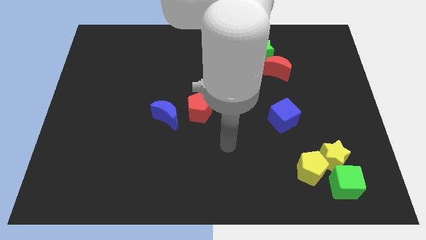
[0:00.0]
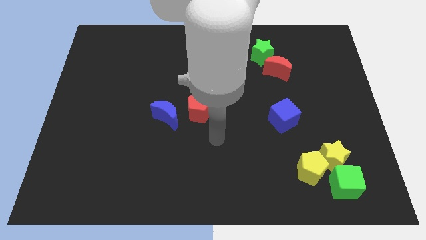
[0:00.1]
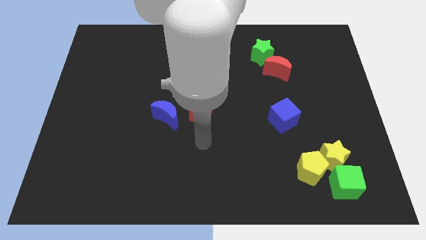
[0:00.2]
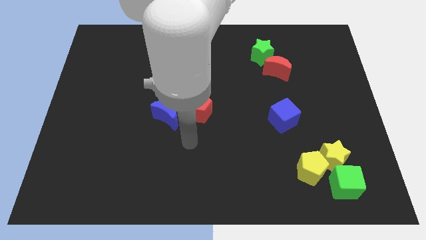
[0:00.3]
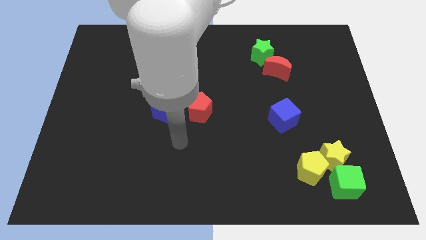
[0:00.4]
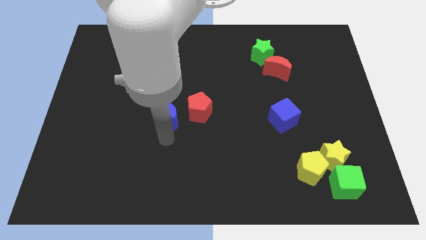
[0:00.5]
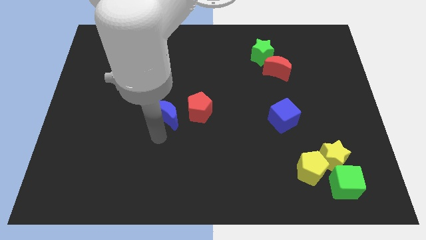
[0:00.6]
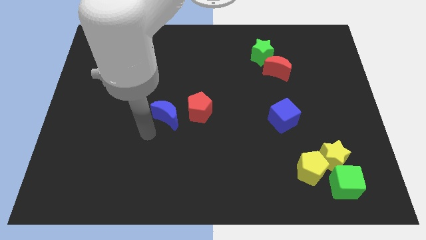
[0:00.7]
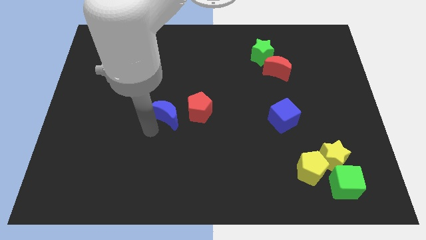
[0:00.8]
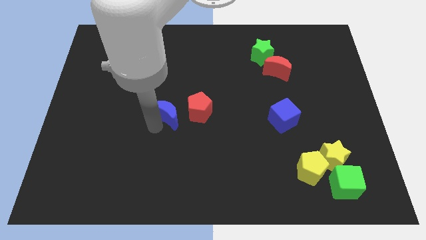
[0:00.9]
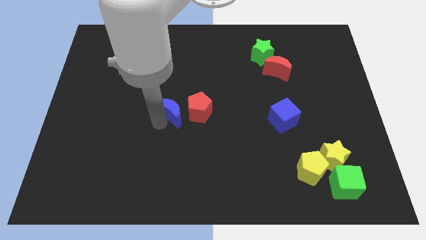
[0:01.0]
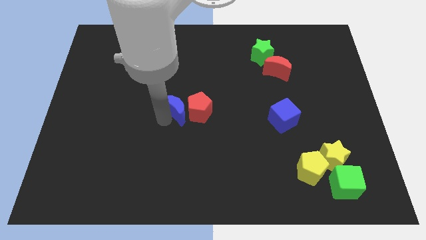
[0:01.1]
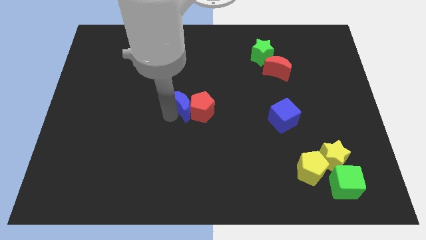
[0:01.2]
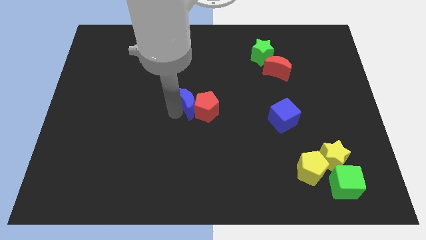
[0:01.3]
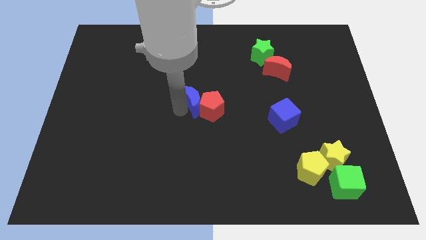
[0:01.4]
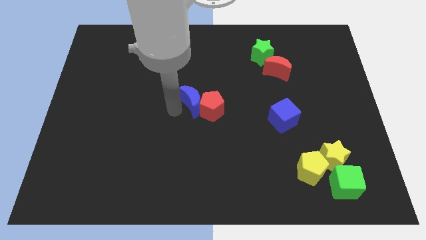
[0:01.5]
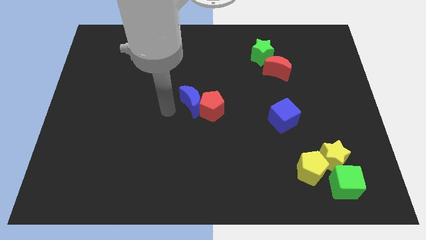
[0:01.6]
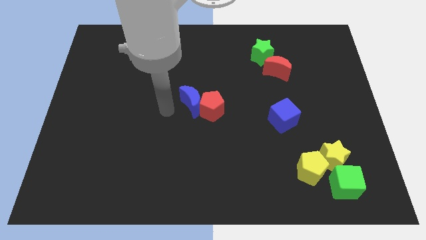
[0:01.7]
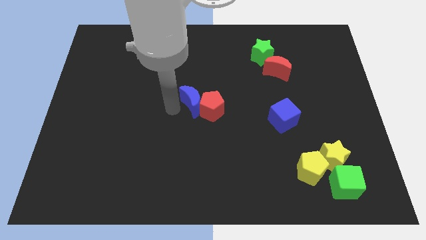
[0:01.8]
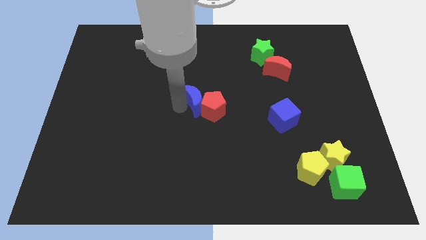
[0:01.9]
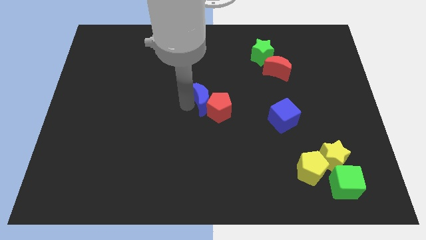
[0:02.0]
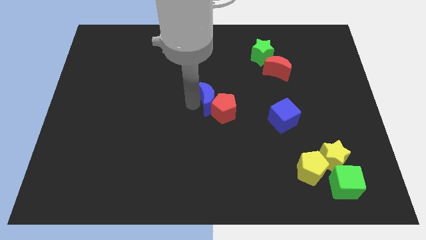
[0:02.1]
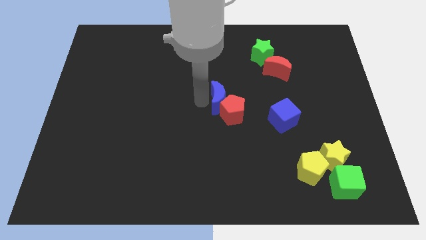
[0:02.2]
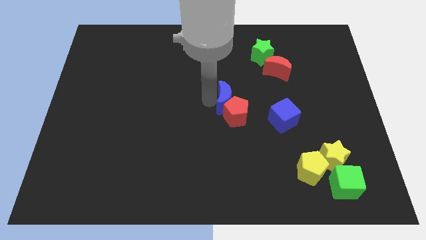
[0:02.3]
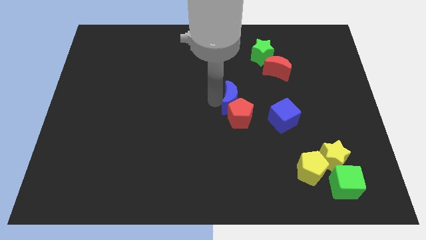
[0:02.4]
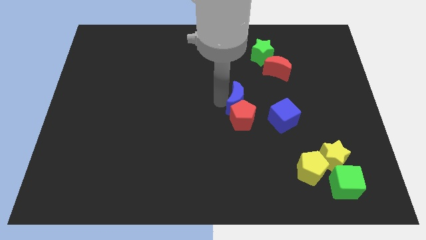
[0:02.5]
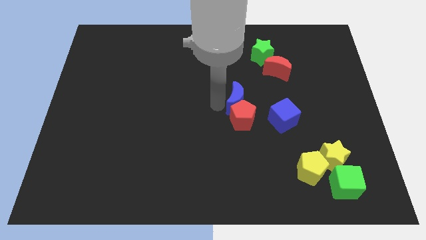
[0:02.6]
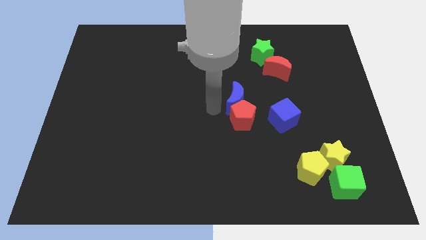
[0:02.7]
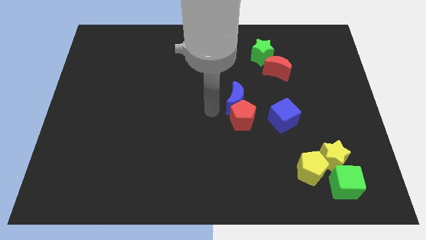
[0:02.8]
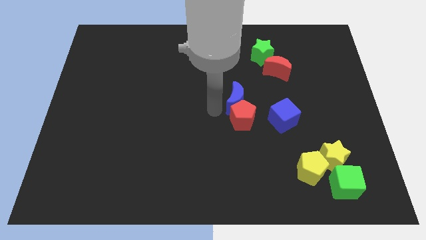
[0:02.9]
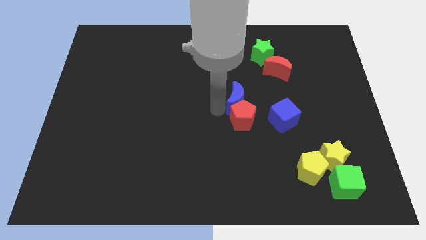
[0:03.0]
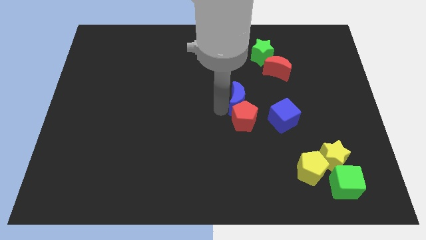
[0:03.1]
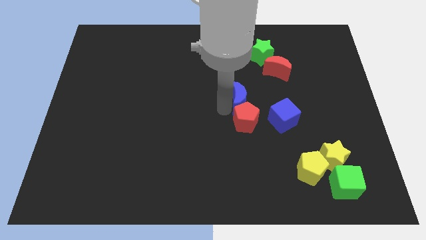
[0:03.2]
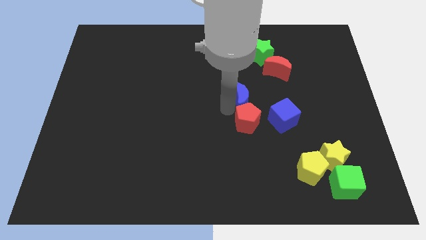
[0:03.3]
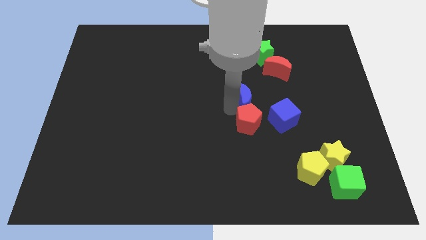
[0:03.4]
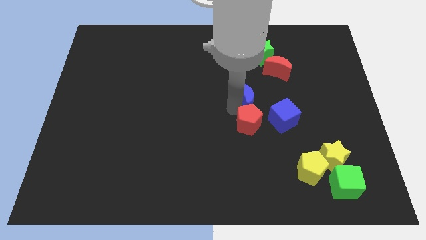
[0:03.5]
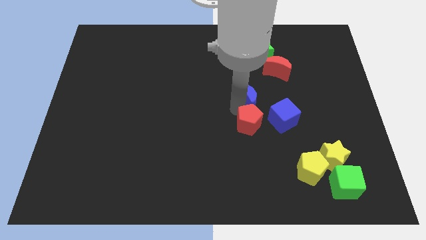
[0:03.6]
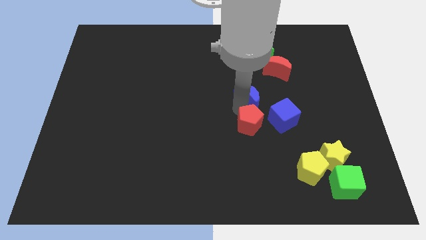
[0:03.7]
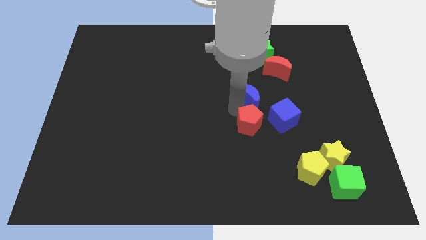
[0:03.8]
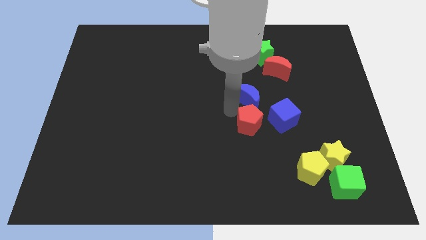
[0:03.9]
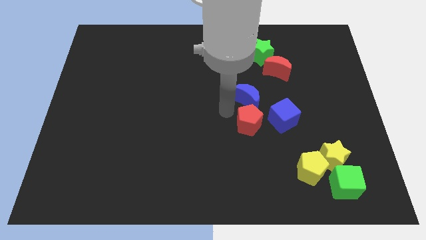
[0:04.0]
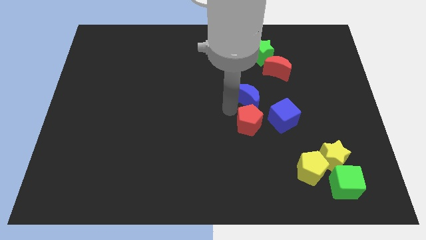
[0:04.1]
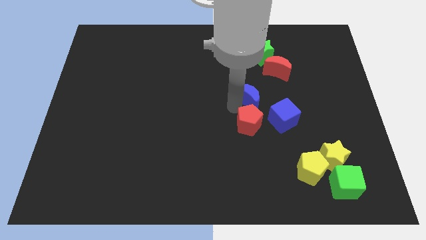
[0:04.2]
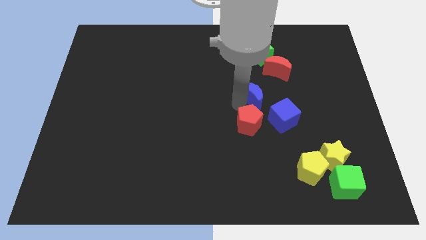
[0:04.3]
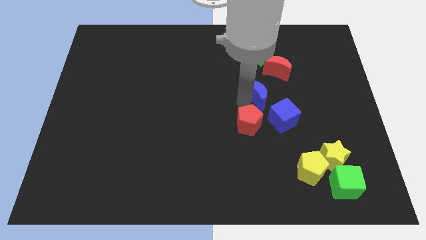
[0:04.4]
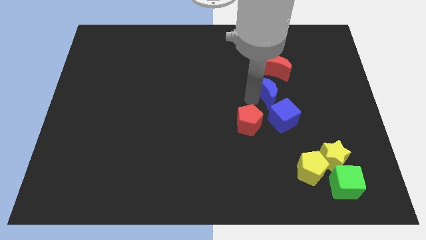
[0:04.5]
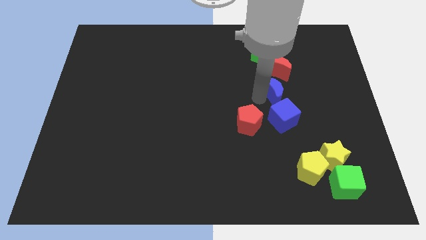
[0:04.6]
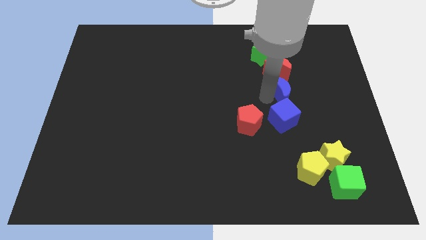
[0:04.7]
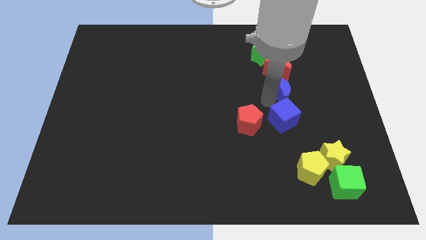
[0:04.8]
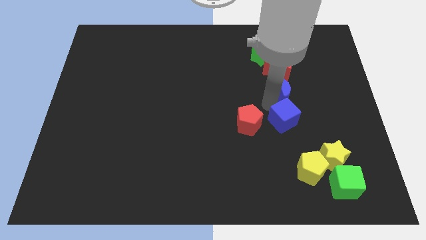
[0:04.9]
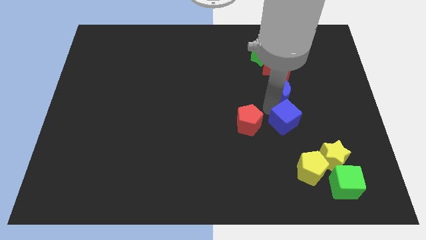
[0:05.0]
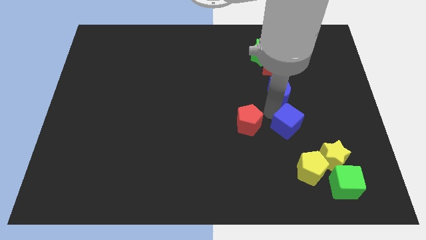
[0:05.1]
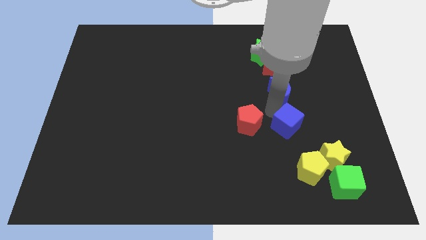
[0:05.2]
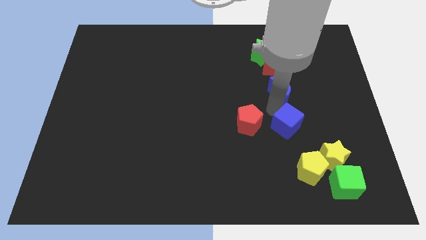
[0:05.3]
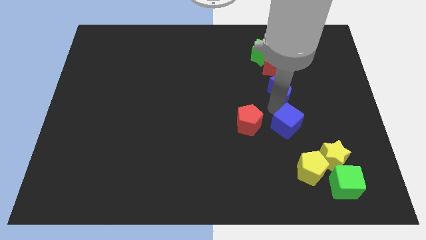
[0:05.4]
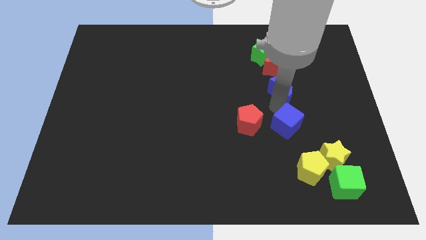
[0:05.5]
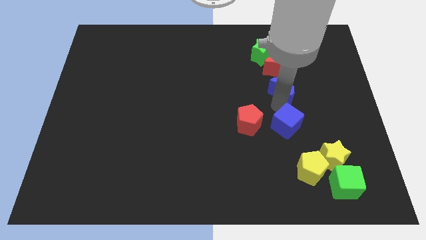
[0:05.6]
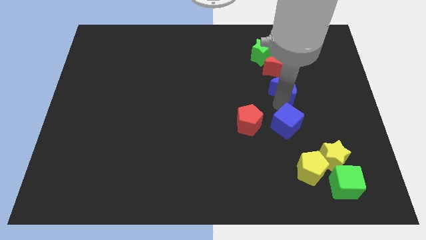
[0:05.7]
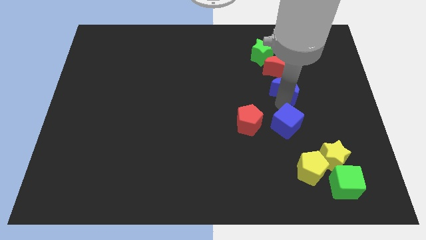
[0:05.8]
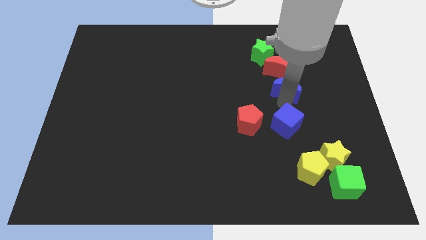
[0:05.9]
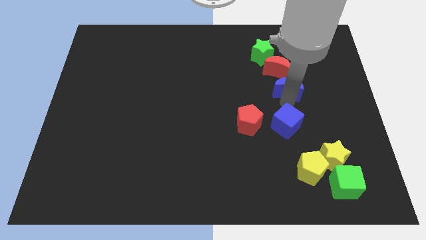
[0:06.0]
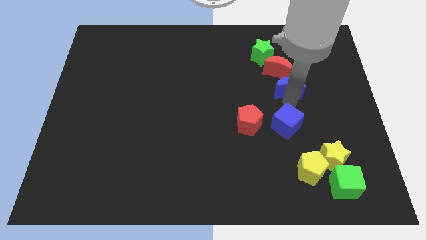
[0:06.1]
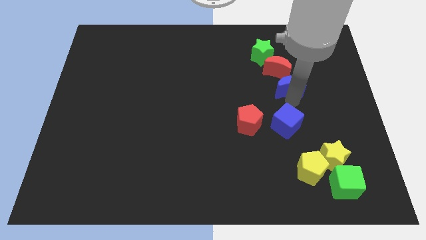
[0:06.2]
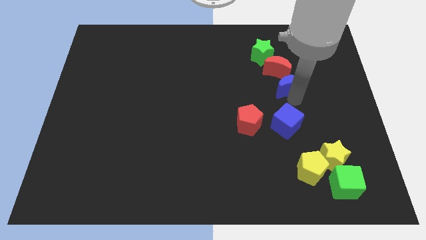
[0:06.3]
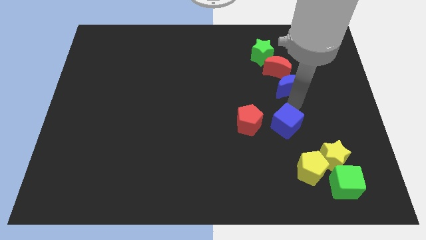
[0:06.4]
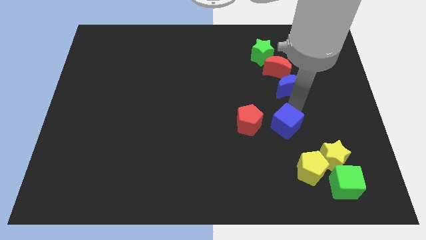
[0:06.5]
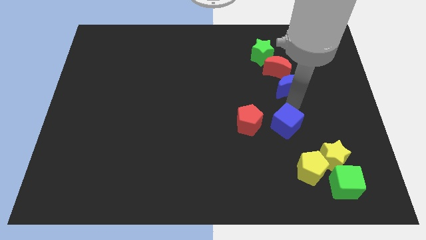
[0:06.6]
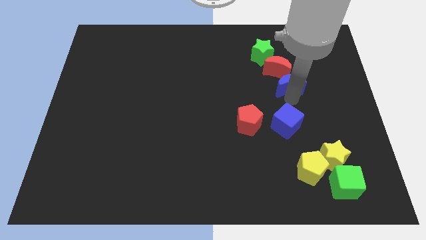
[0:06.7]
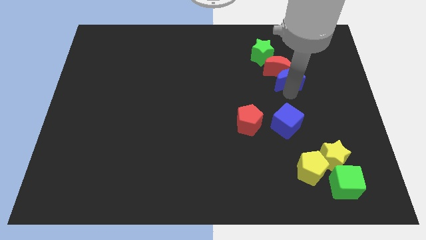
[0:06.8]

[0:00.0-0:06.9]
move the blue moon diagonally down and to the right of the green star

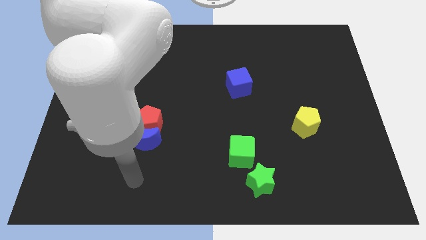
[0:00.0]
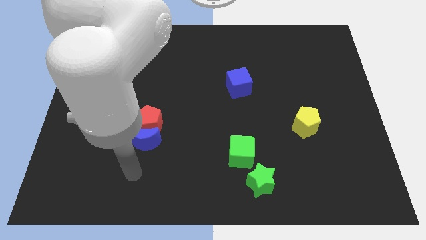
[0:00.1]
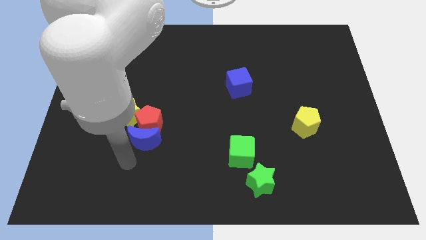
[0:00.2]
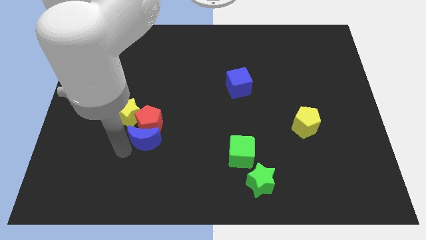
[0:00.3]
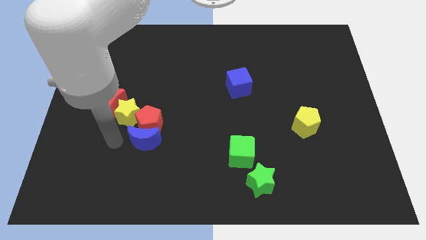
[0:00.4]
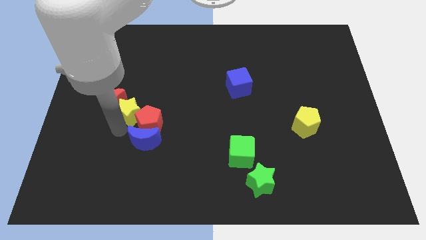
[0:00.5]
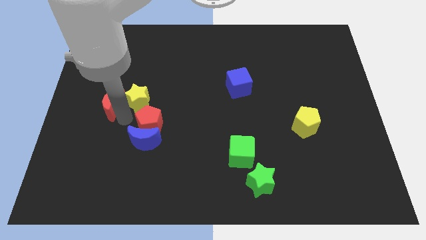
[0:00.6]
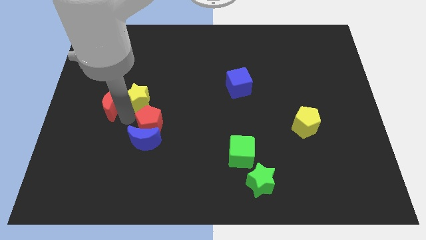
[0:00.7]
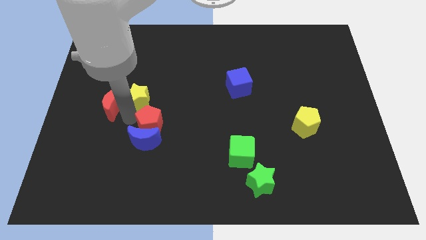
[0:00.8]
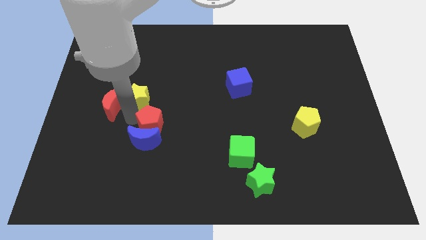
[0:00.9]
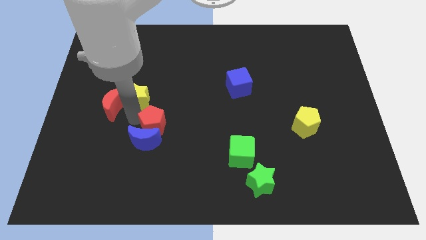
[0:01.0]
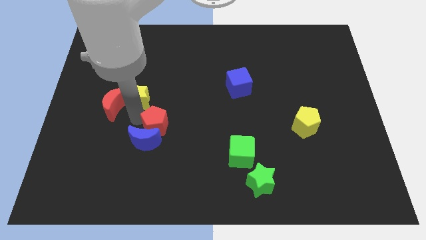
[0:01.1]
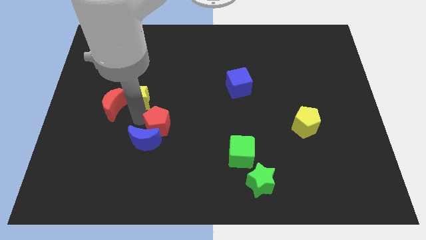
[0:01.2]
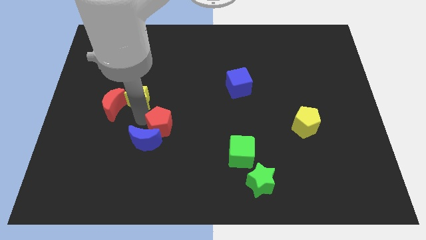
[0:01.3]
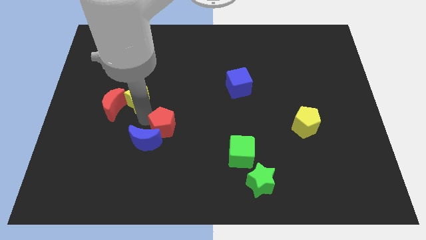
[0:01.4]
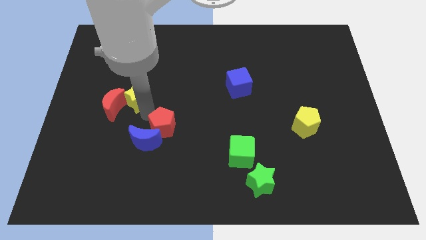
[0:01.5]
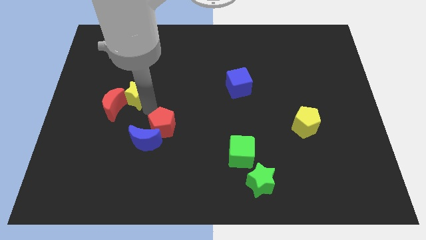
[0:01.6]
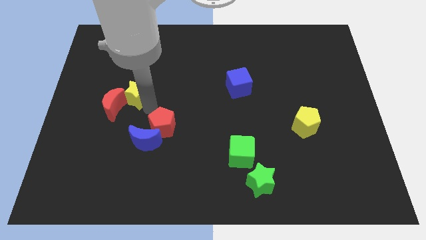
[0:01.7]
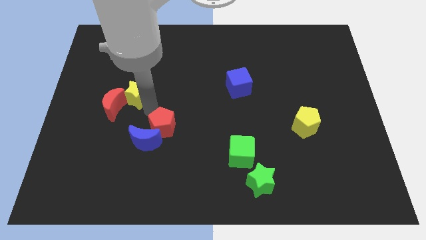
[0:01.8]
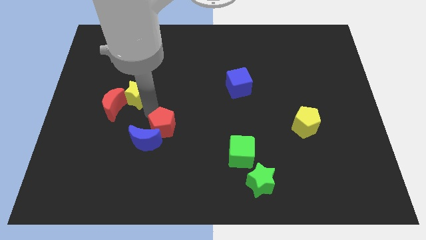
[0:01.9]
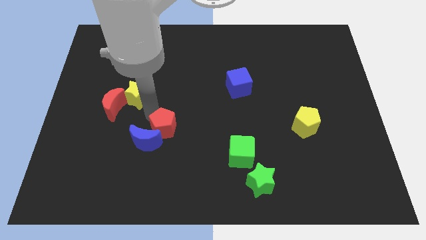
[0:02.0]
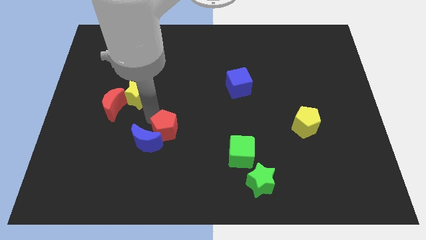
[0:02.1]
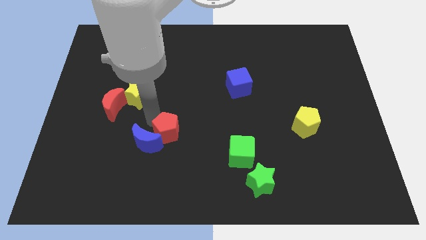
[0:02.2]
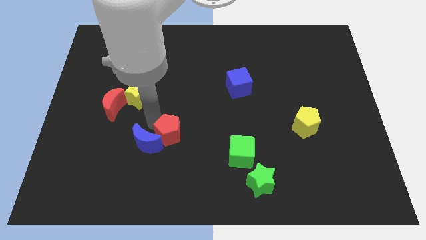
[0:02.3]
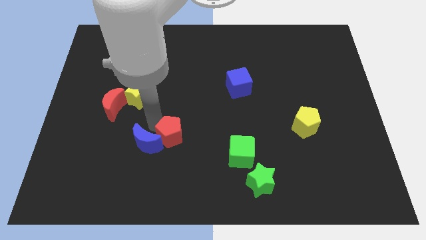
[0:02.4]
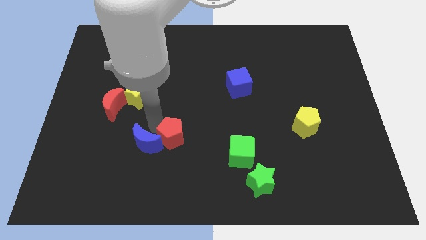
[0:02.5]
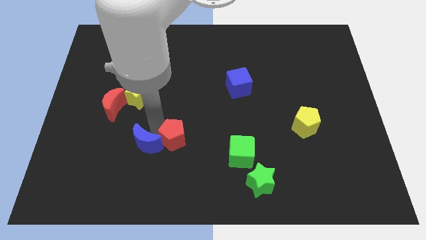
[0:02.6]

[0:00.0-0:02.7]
push the red pentagon diagonally down and to the right of the blue moon
